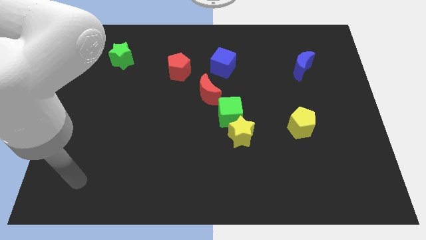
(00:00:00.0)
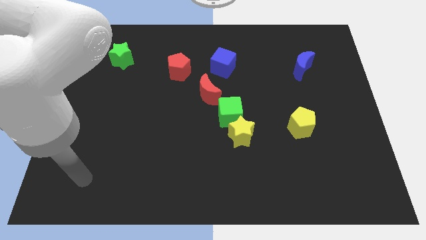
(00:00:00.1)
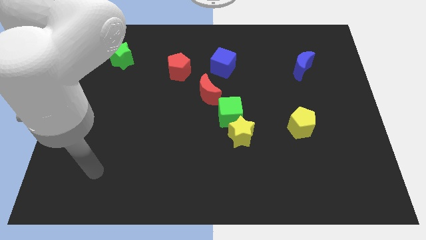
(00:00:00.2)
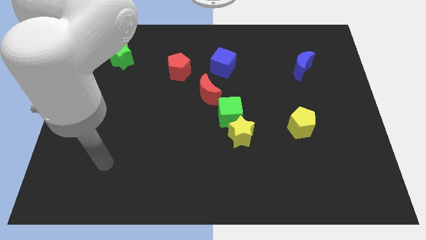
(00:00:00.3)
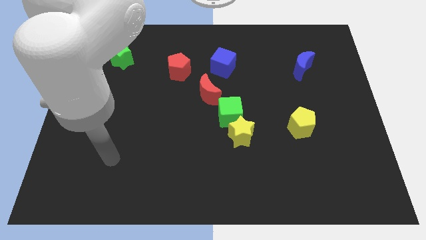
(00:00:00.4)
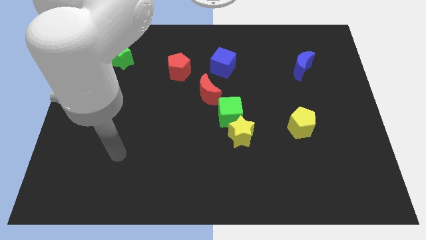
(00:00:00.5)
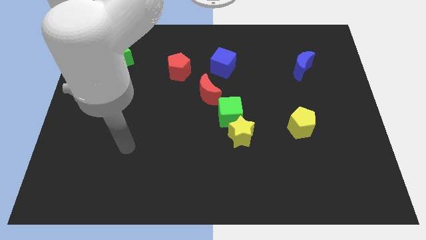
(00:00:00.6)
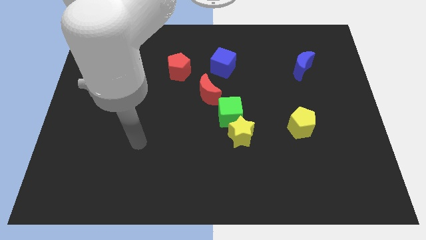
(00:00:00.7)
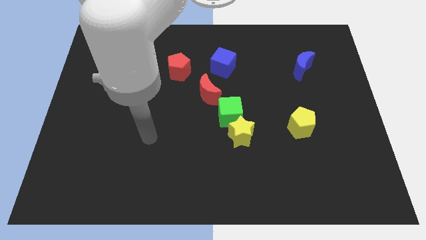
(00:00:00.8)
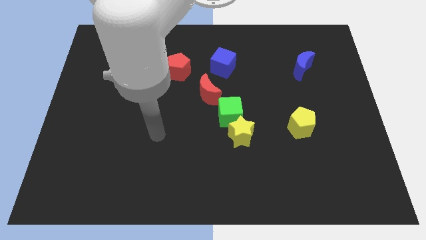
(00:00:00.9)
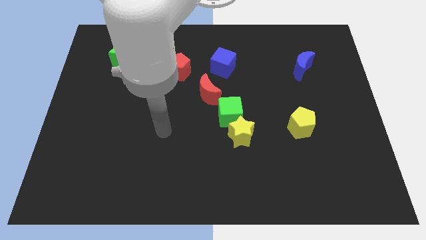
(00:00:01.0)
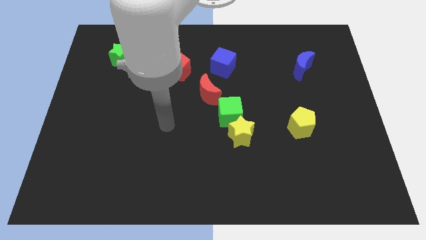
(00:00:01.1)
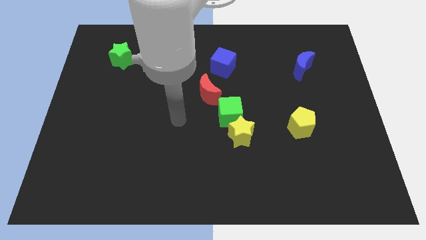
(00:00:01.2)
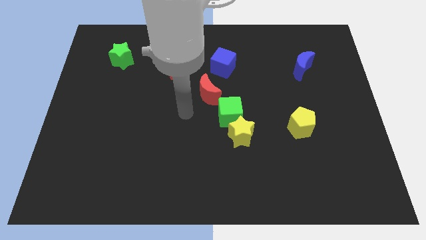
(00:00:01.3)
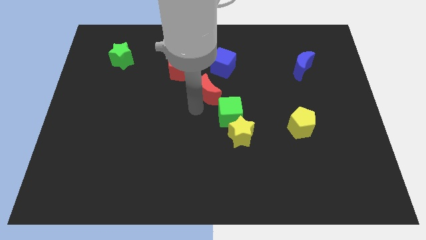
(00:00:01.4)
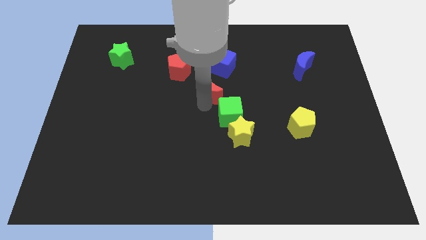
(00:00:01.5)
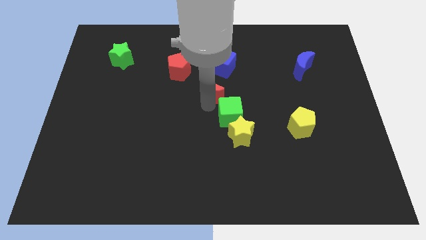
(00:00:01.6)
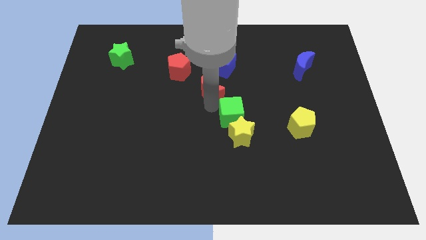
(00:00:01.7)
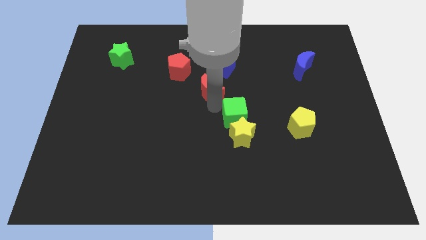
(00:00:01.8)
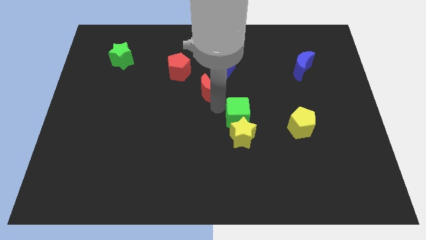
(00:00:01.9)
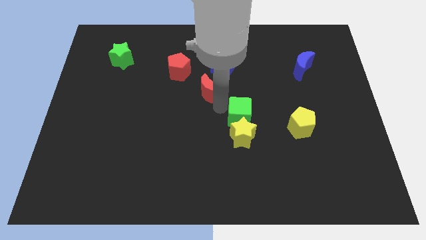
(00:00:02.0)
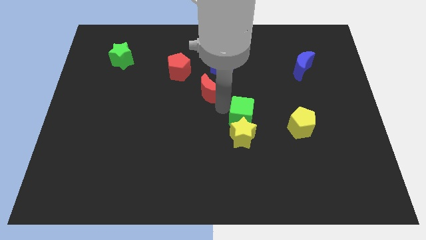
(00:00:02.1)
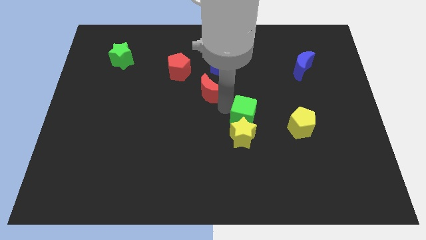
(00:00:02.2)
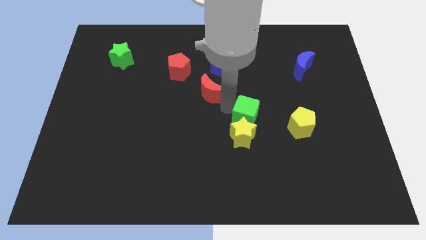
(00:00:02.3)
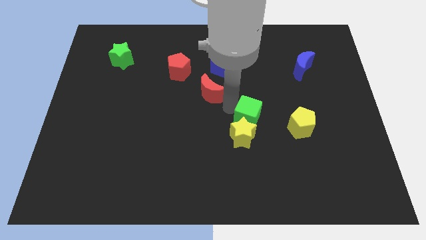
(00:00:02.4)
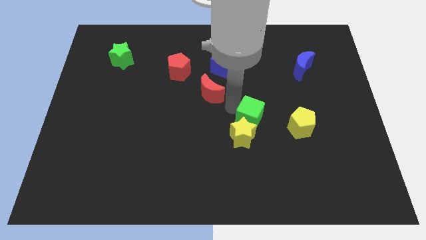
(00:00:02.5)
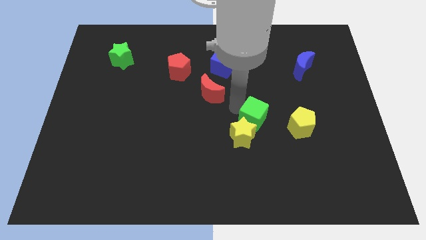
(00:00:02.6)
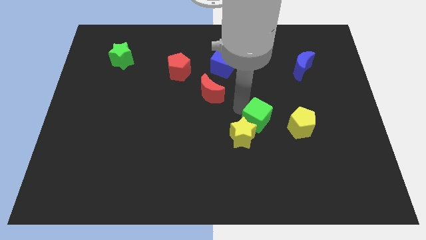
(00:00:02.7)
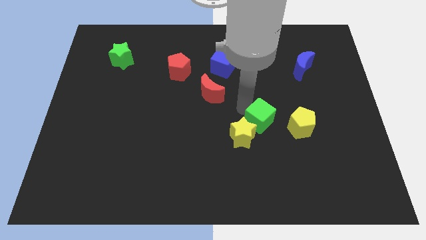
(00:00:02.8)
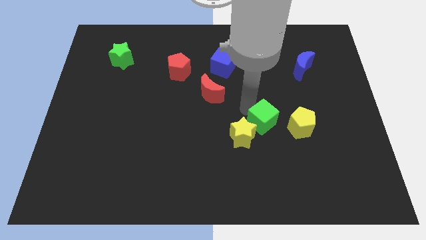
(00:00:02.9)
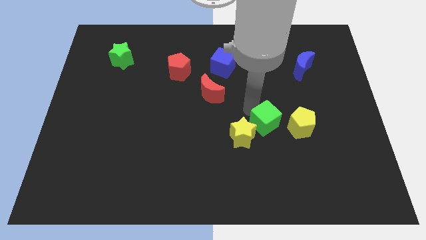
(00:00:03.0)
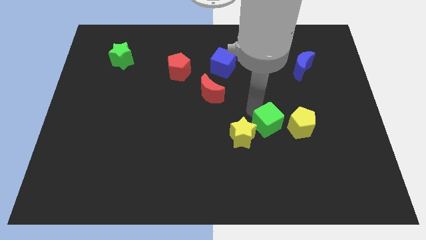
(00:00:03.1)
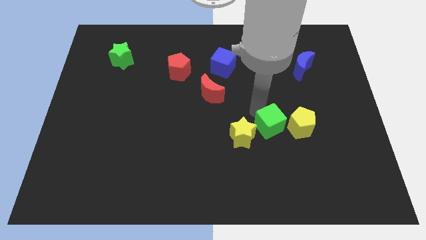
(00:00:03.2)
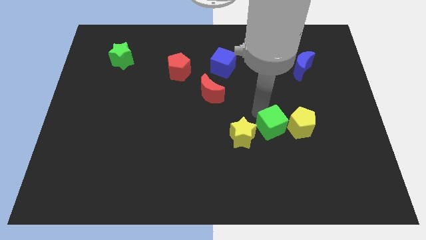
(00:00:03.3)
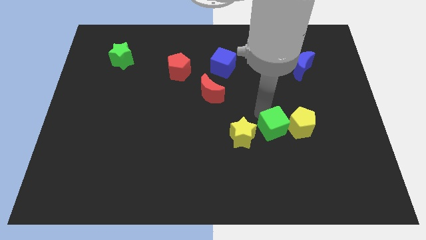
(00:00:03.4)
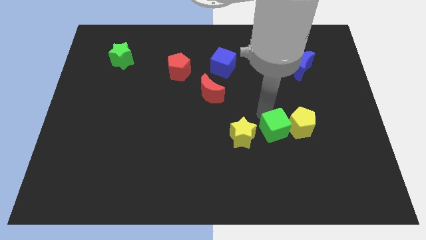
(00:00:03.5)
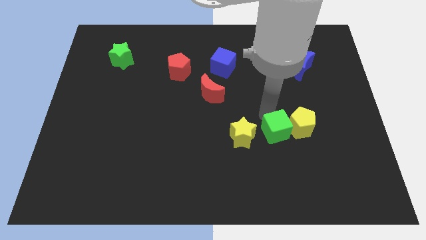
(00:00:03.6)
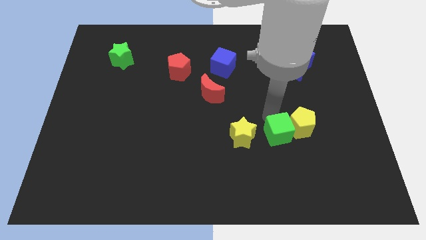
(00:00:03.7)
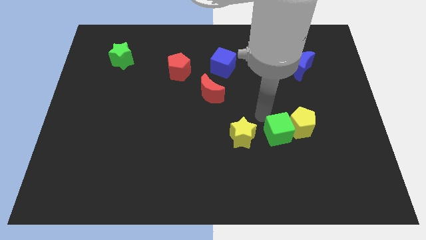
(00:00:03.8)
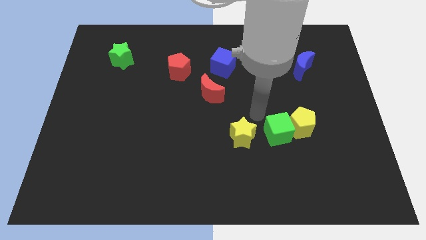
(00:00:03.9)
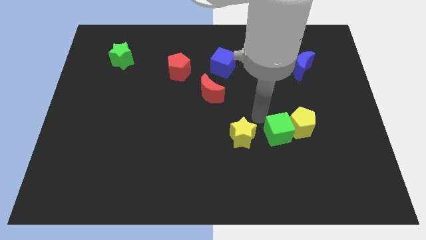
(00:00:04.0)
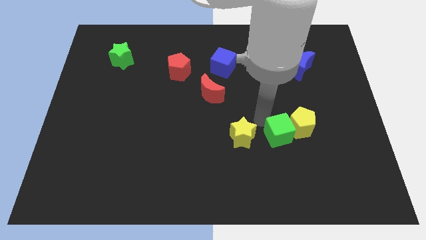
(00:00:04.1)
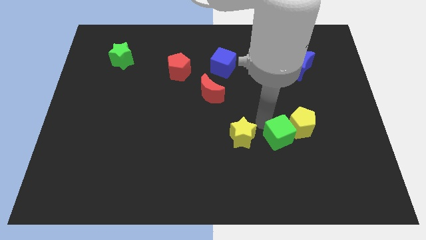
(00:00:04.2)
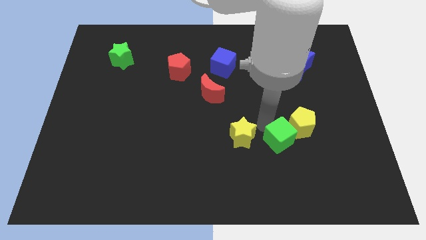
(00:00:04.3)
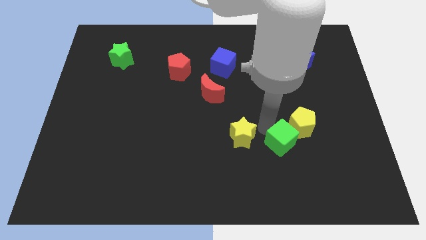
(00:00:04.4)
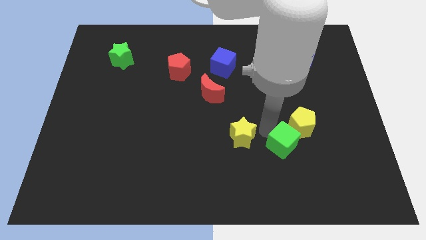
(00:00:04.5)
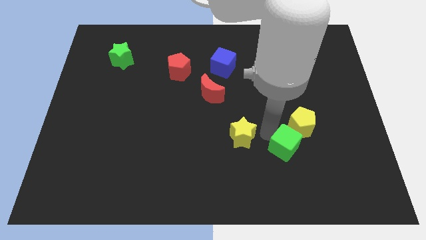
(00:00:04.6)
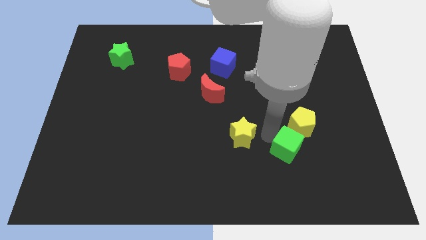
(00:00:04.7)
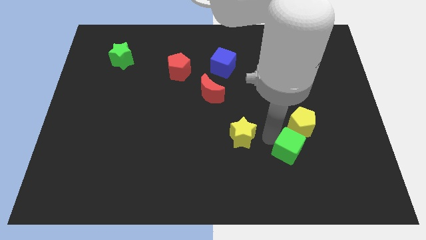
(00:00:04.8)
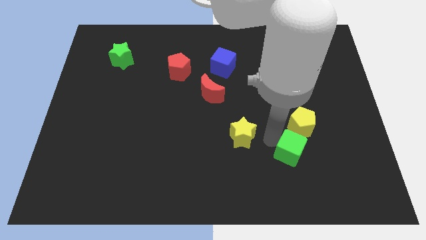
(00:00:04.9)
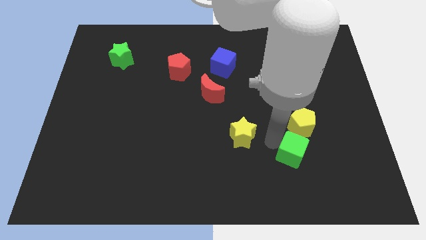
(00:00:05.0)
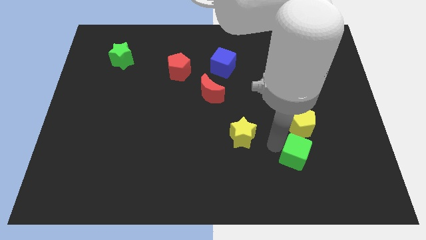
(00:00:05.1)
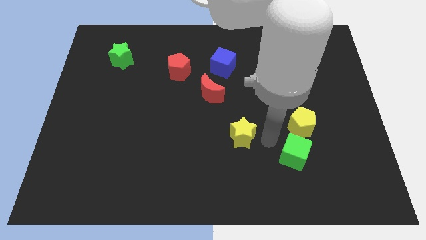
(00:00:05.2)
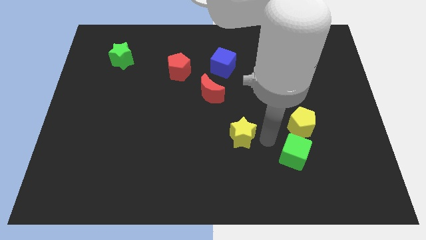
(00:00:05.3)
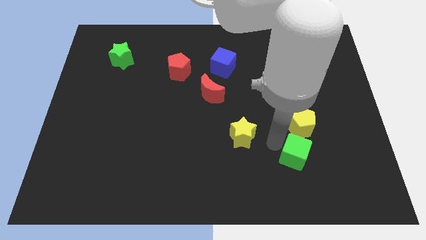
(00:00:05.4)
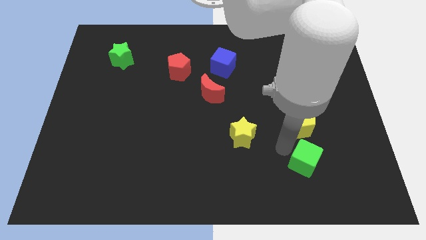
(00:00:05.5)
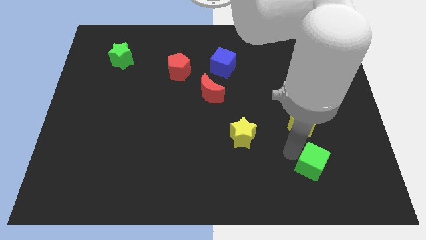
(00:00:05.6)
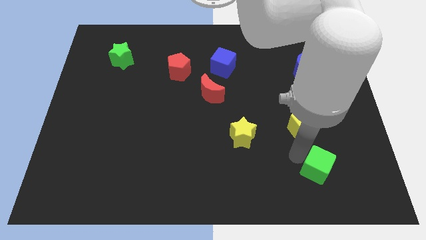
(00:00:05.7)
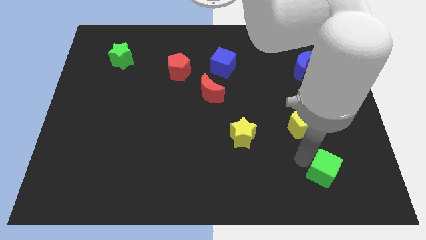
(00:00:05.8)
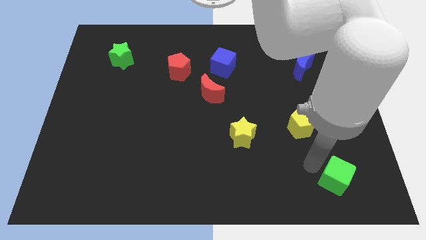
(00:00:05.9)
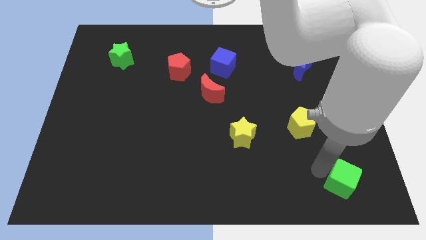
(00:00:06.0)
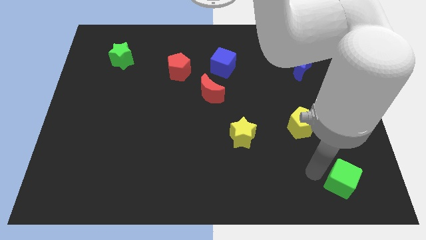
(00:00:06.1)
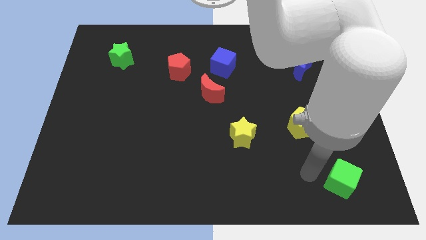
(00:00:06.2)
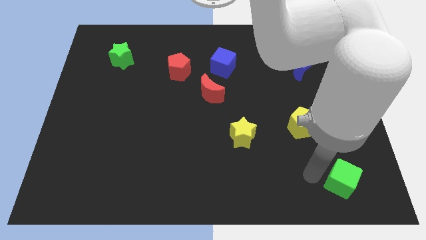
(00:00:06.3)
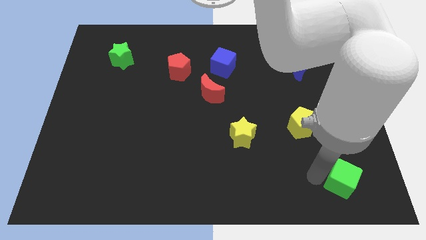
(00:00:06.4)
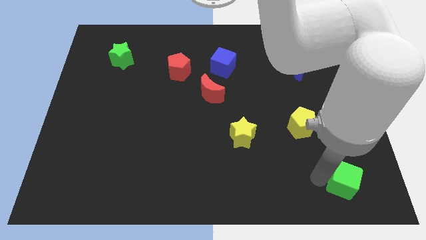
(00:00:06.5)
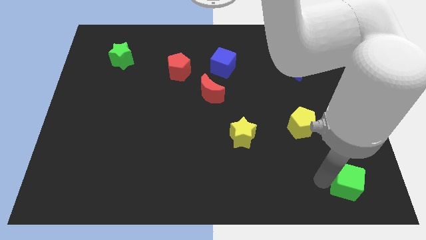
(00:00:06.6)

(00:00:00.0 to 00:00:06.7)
push the green cube to the lower right corner
